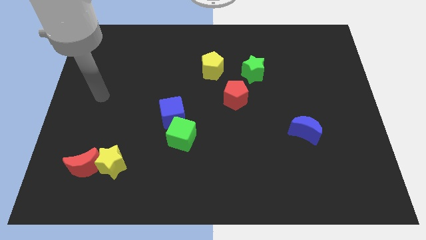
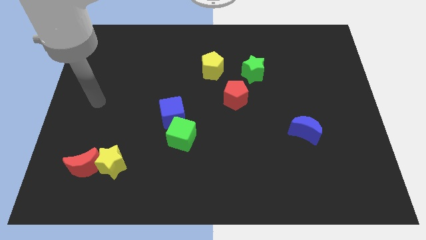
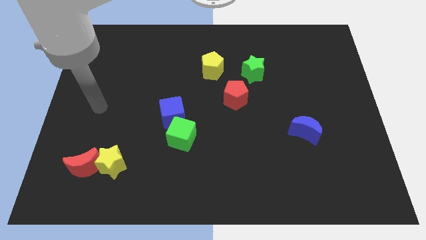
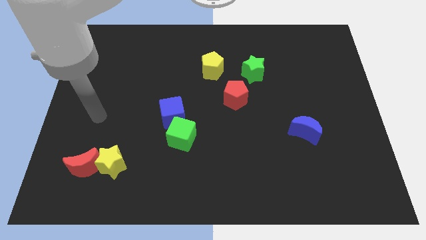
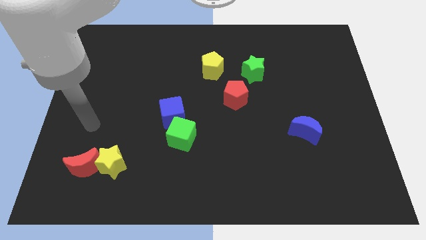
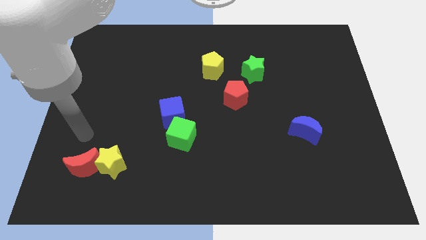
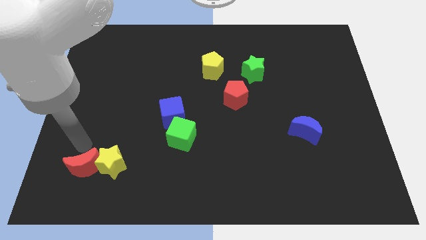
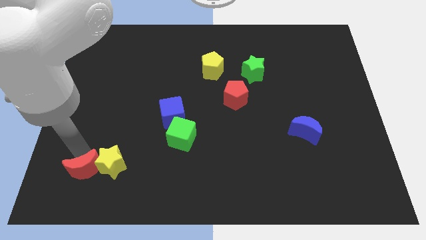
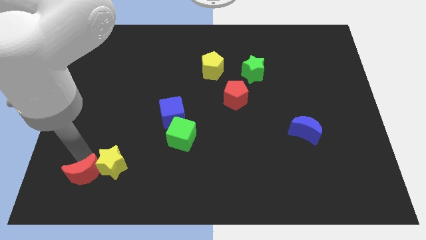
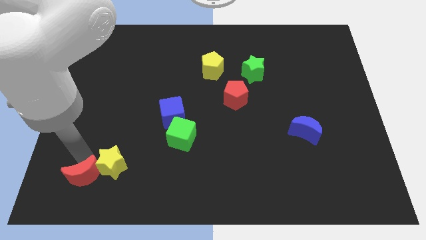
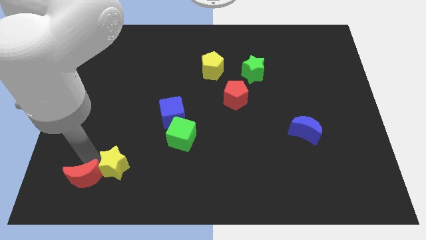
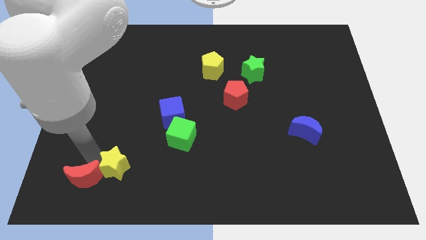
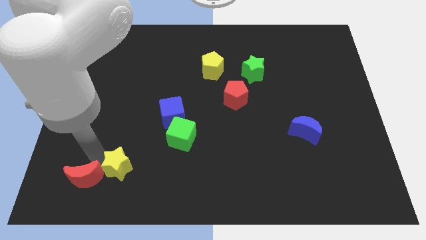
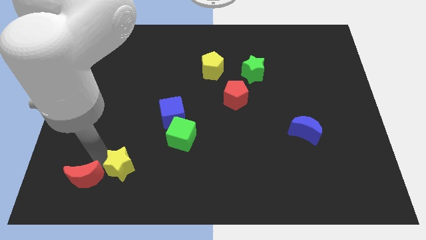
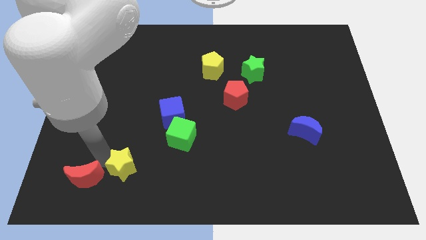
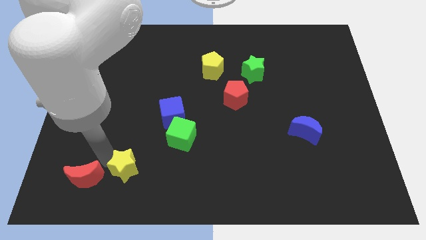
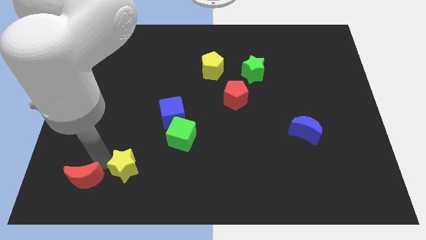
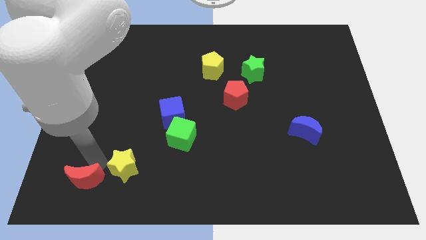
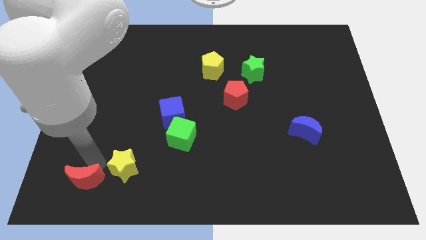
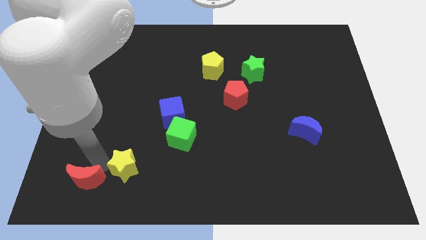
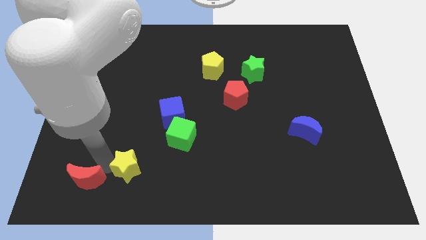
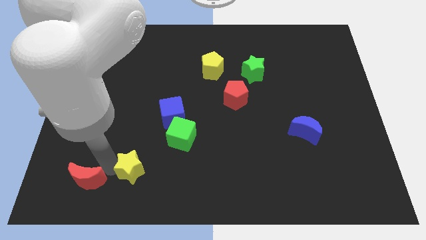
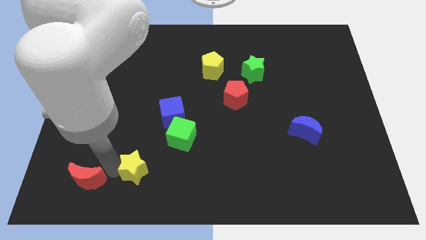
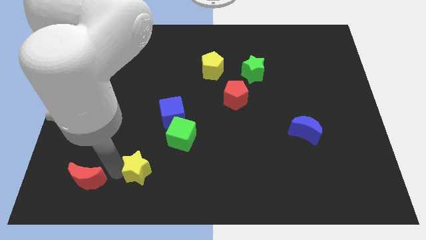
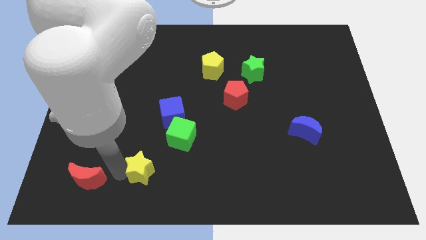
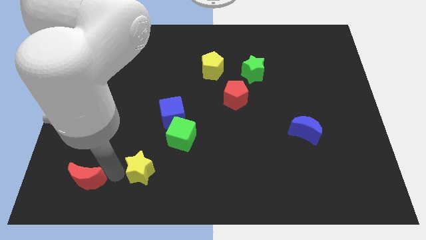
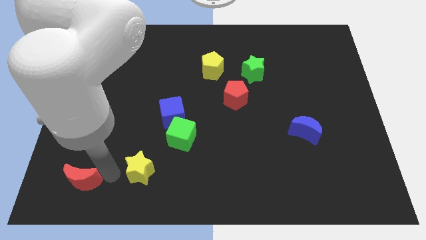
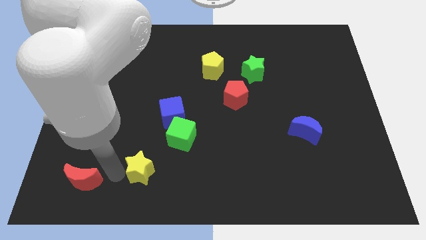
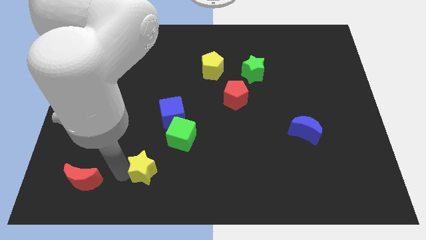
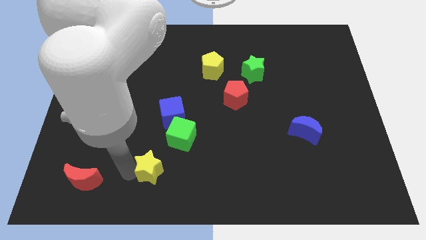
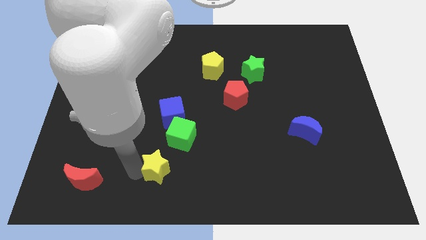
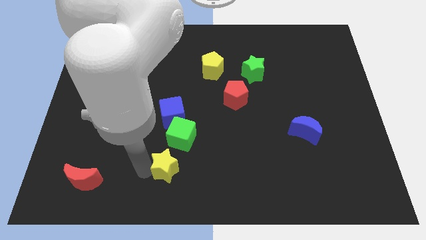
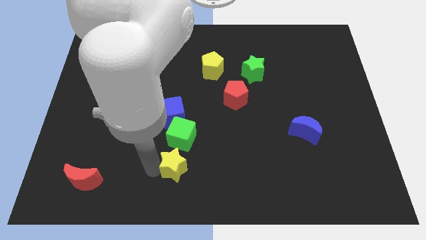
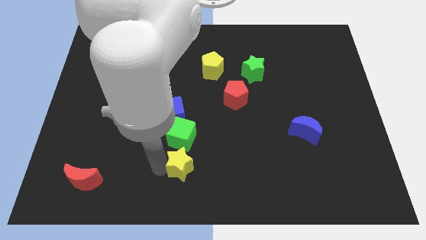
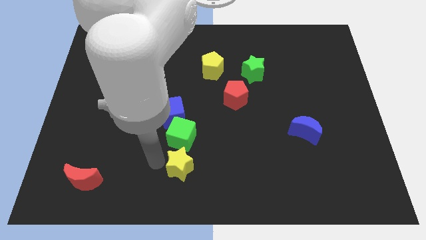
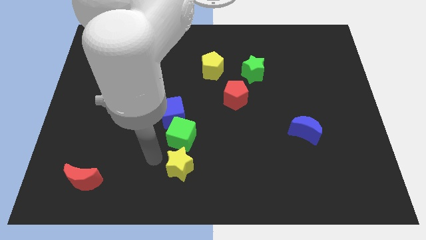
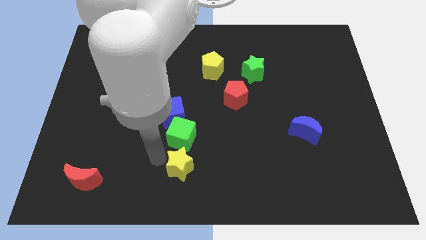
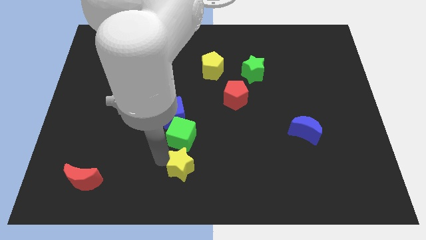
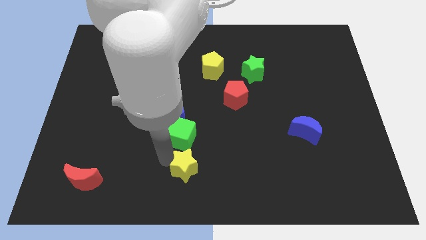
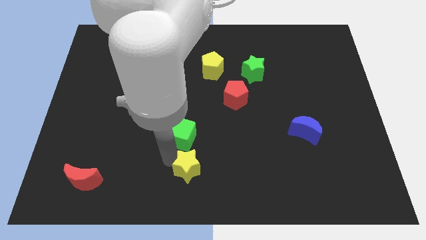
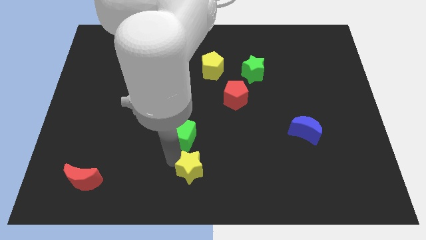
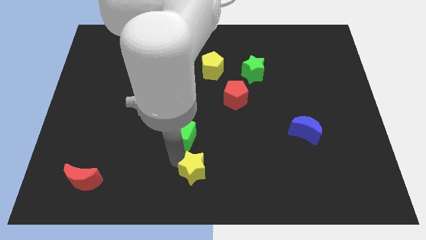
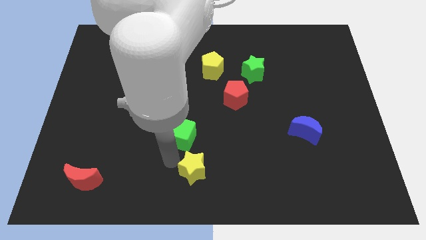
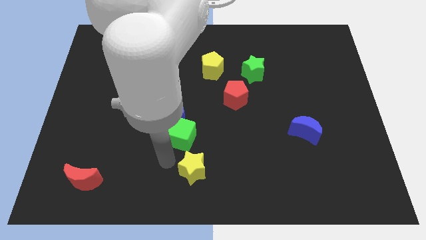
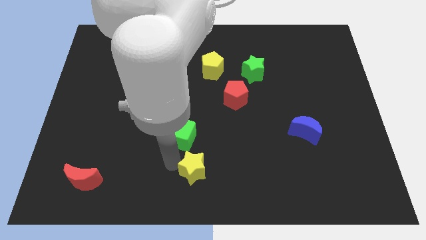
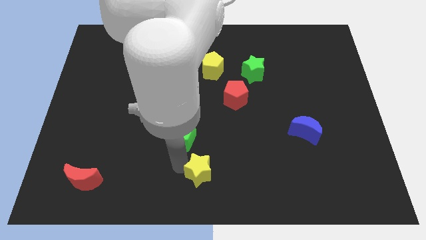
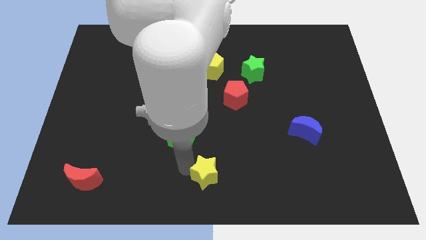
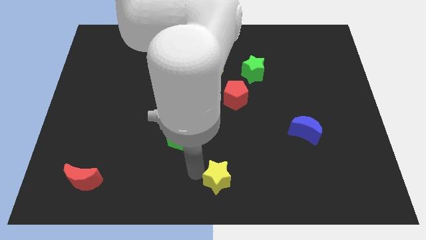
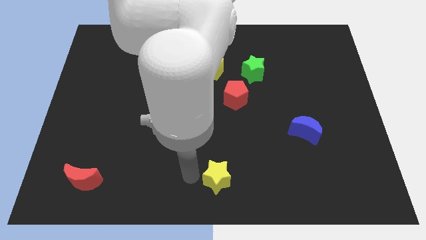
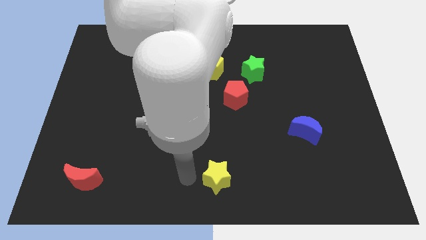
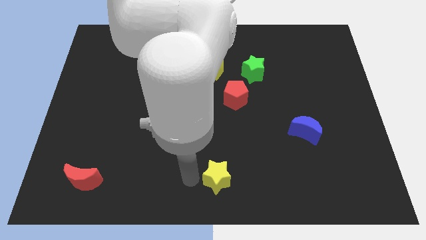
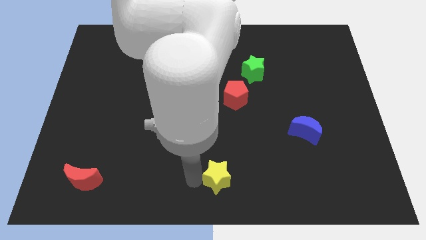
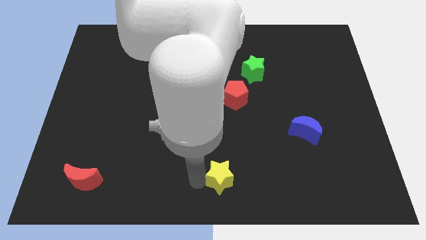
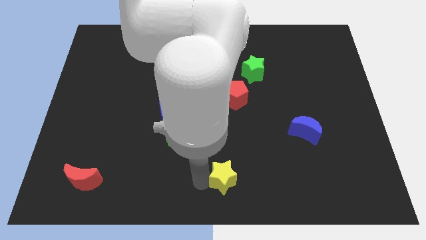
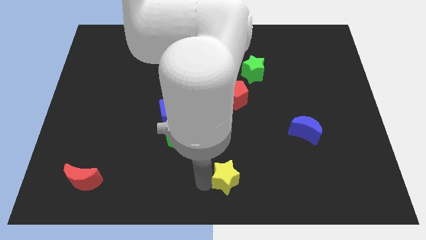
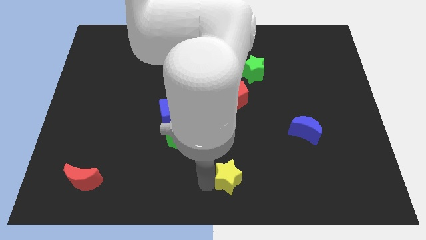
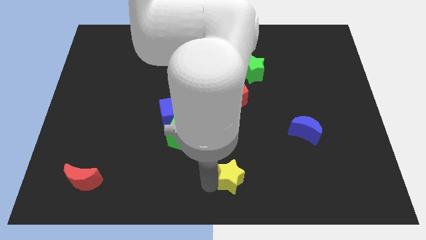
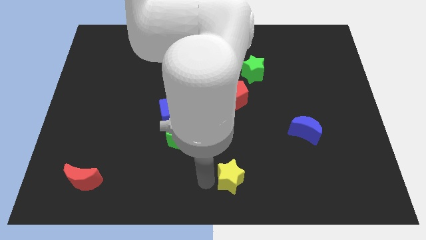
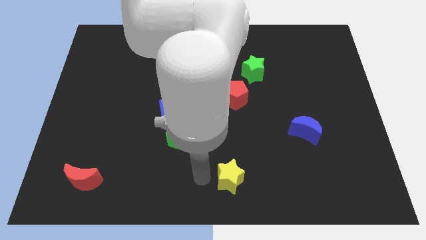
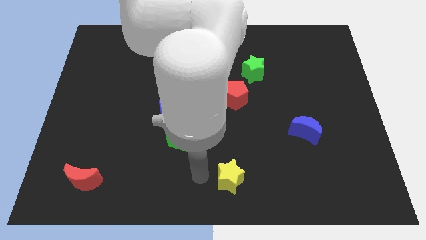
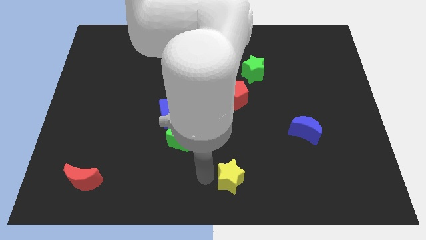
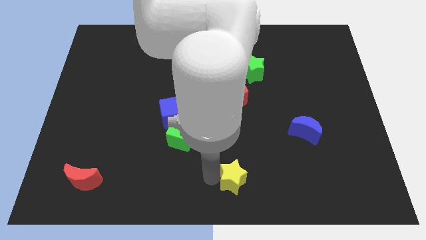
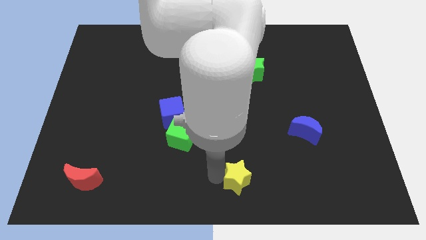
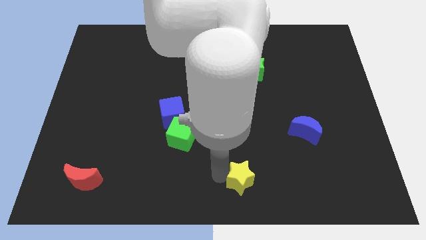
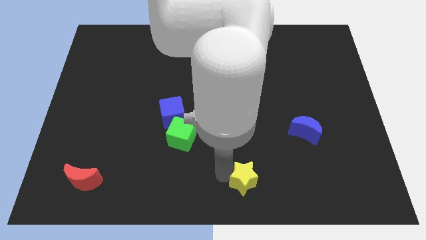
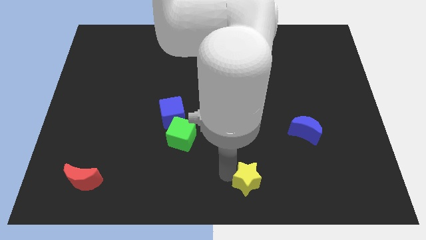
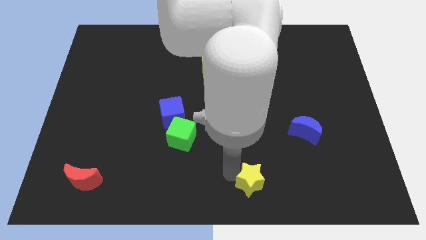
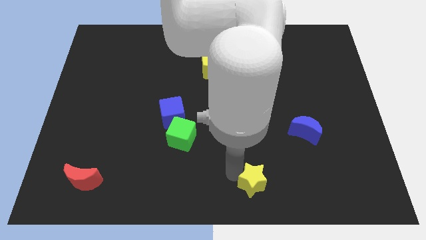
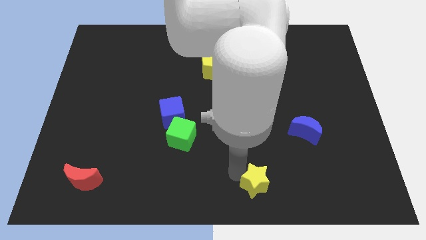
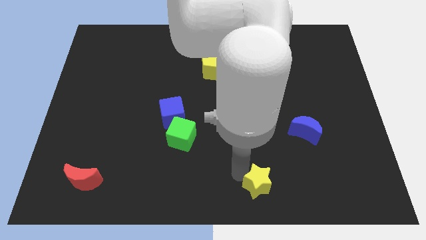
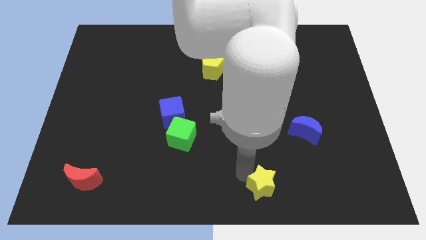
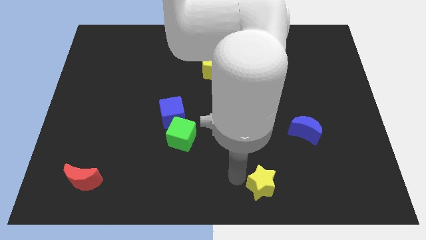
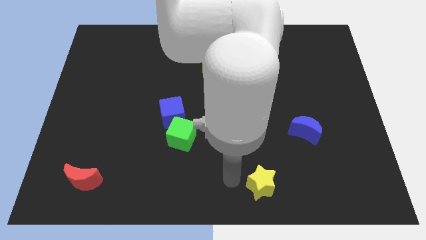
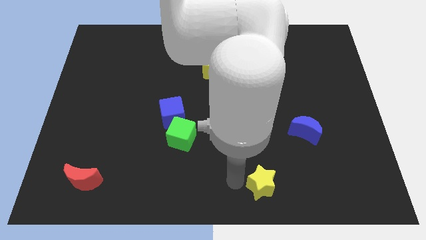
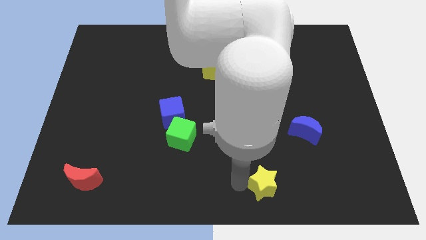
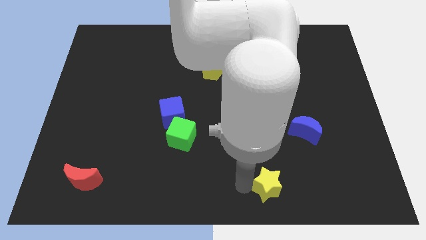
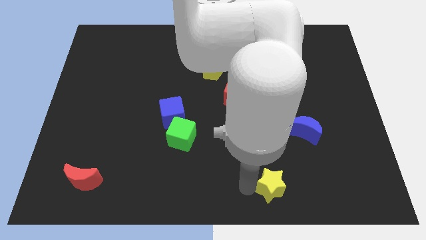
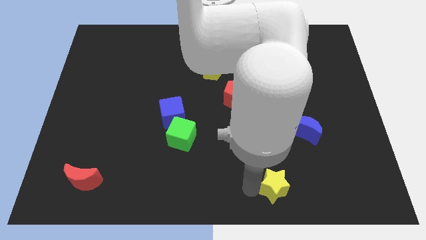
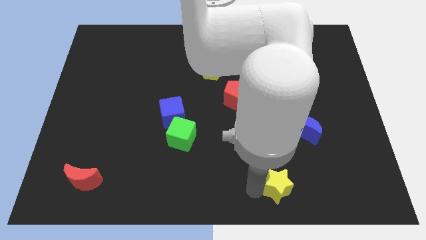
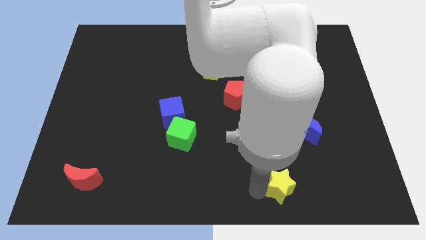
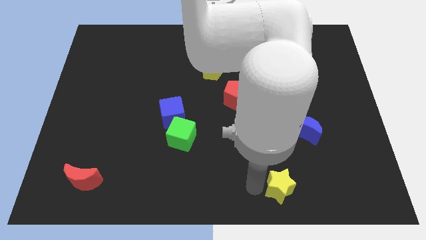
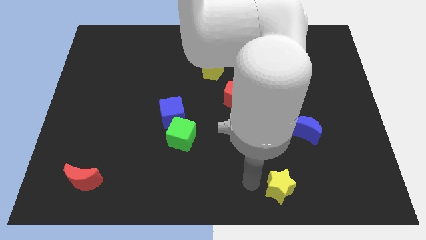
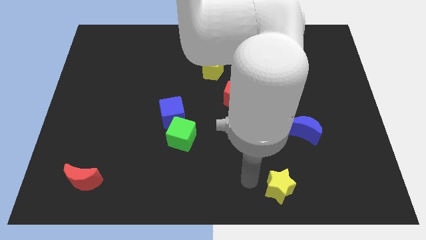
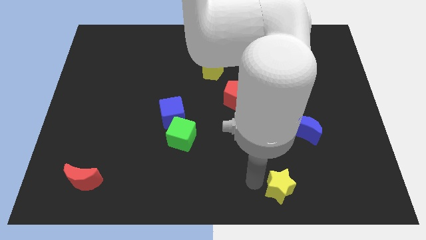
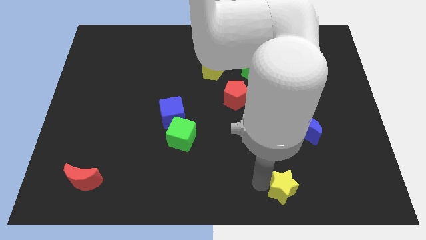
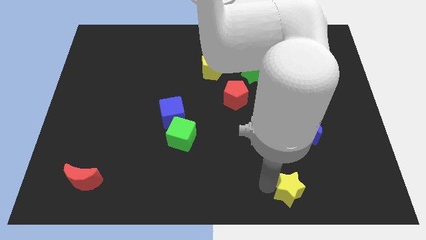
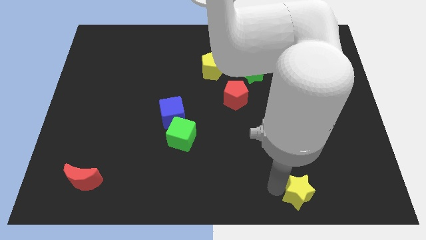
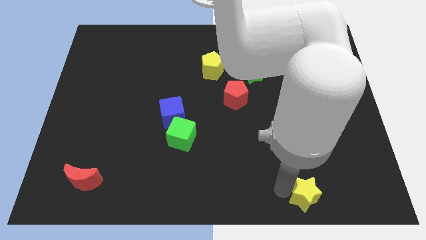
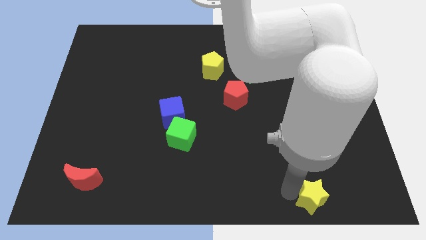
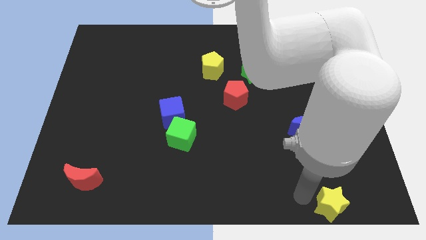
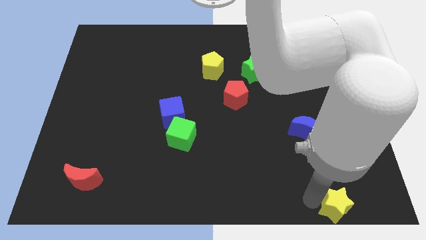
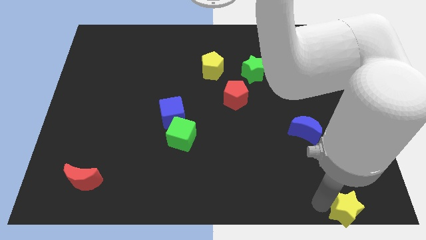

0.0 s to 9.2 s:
push the yellow star to the bottom right corner
